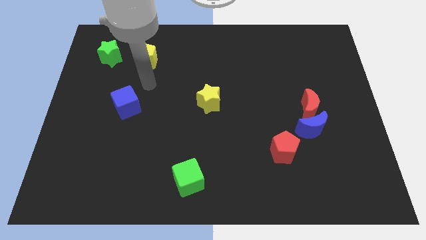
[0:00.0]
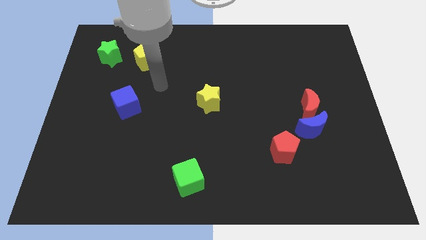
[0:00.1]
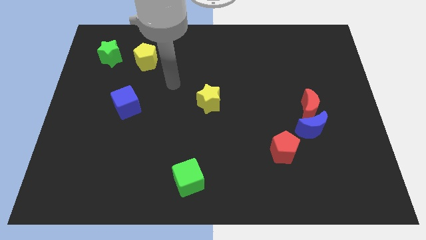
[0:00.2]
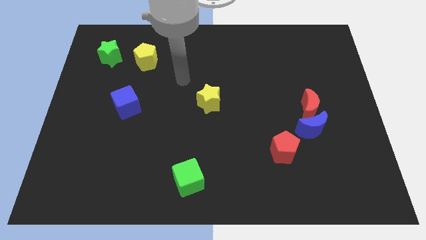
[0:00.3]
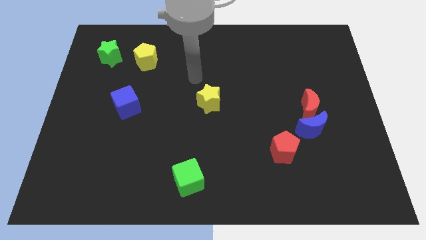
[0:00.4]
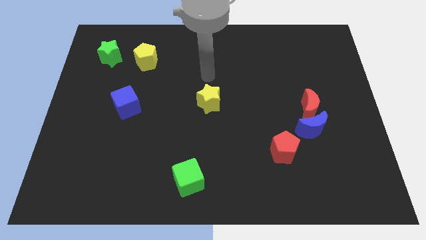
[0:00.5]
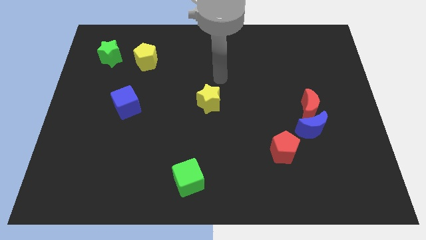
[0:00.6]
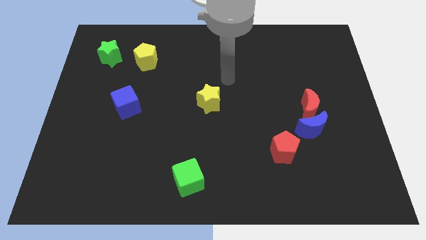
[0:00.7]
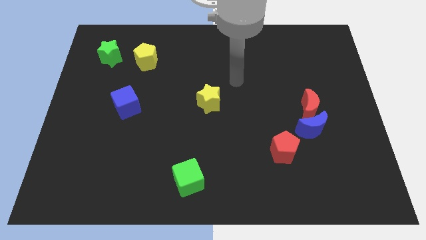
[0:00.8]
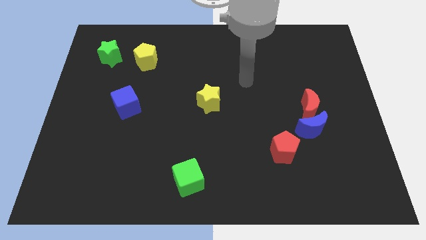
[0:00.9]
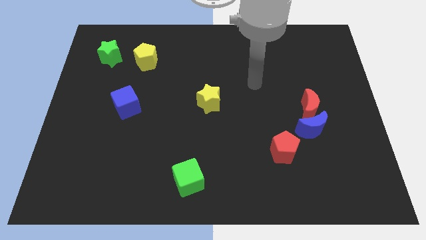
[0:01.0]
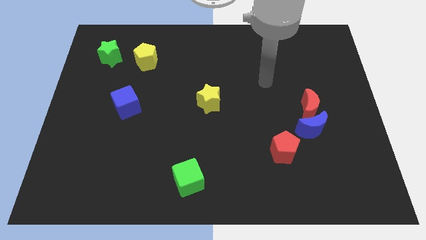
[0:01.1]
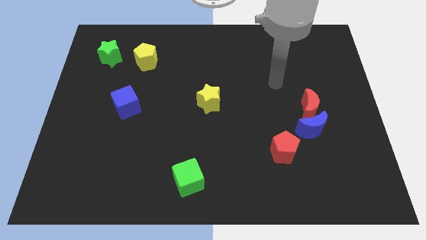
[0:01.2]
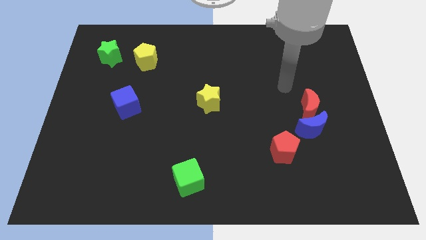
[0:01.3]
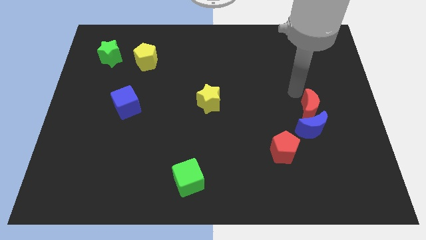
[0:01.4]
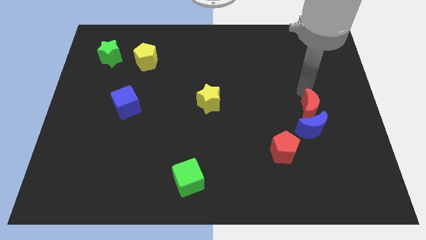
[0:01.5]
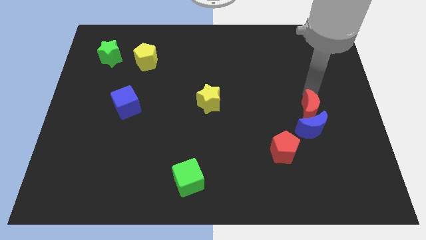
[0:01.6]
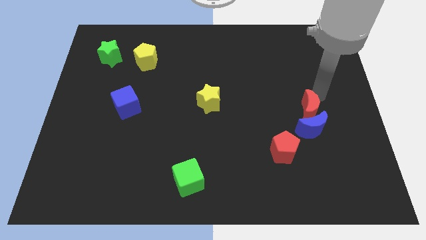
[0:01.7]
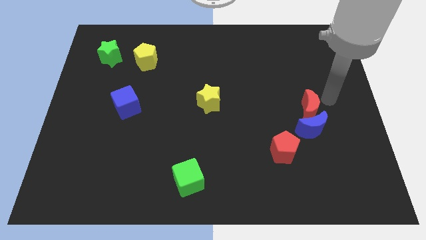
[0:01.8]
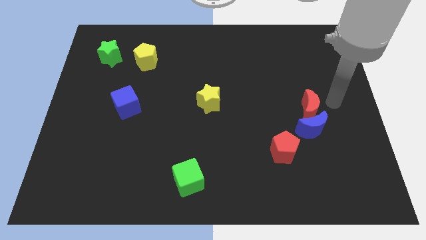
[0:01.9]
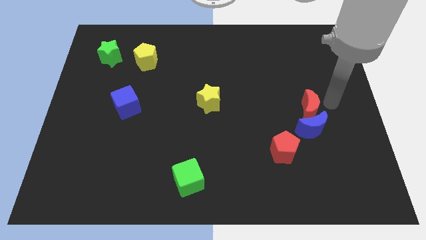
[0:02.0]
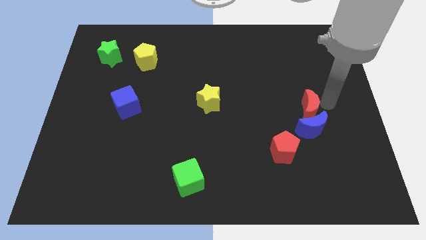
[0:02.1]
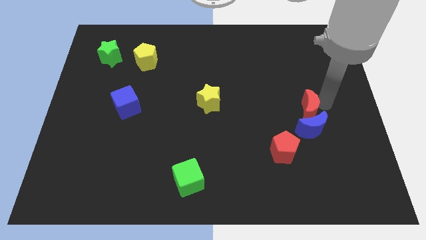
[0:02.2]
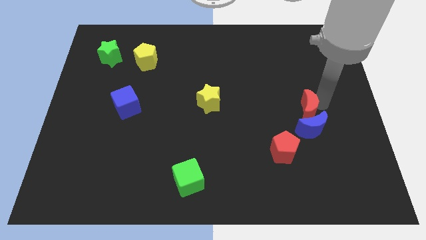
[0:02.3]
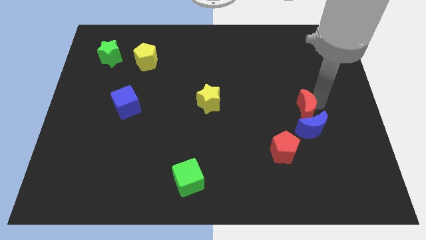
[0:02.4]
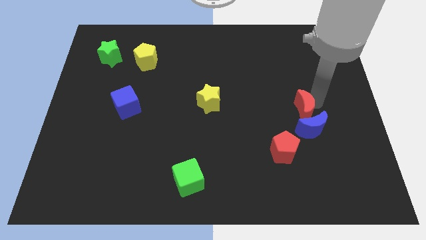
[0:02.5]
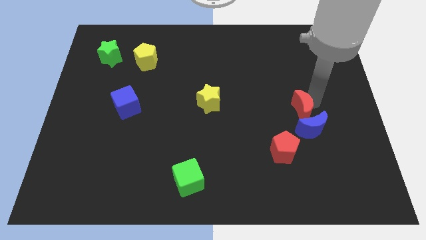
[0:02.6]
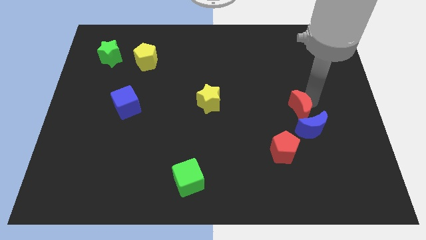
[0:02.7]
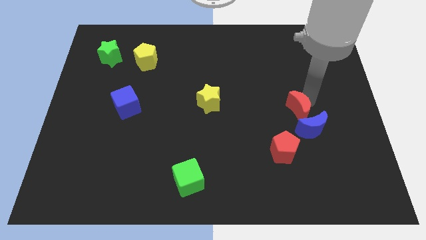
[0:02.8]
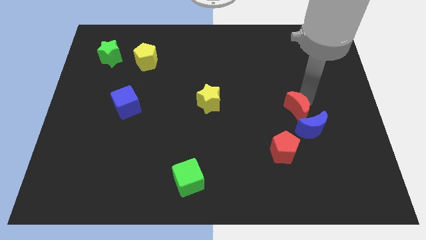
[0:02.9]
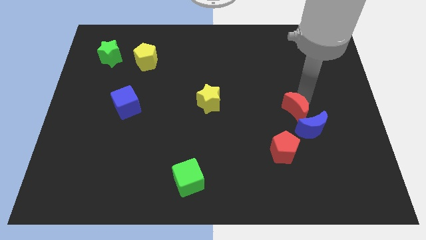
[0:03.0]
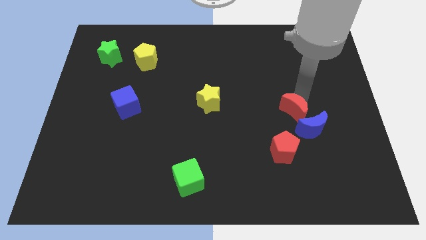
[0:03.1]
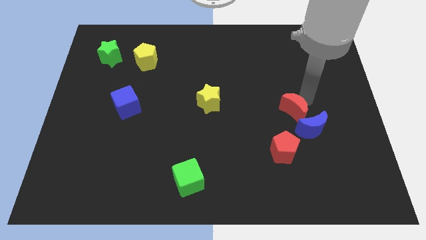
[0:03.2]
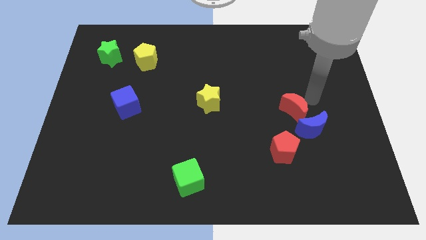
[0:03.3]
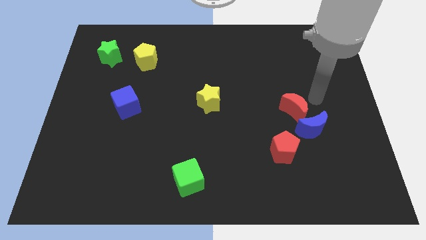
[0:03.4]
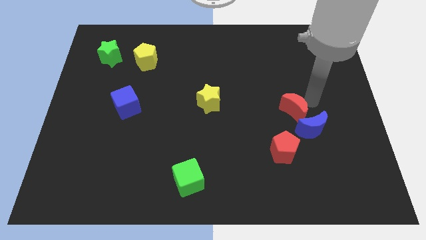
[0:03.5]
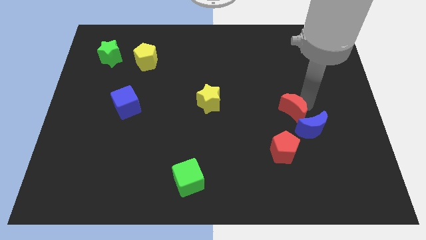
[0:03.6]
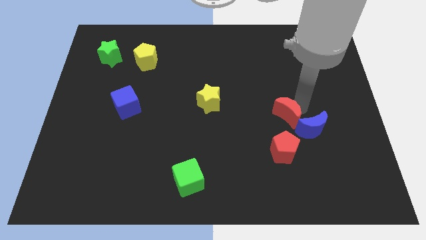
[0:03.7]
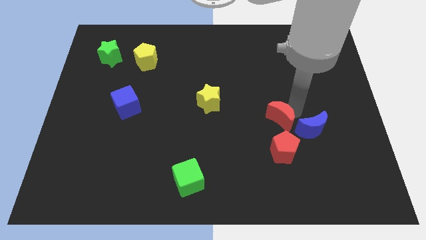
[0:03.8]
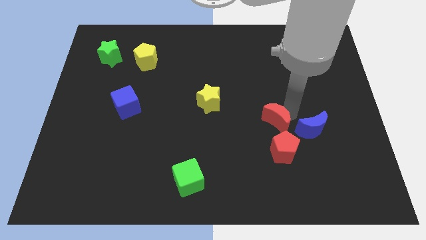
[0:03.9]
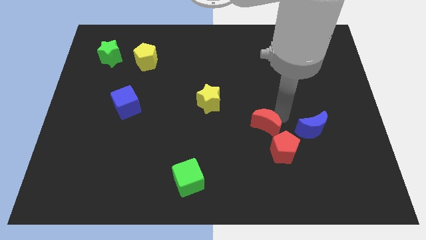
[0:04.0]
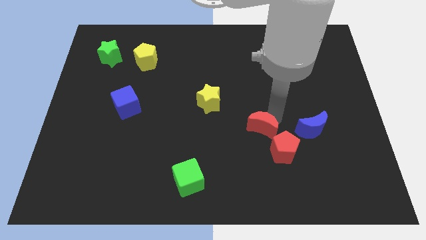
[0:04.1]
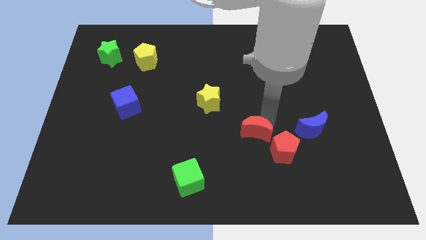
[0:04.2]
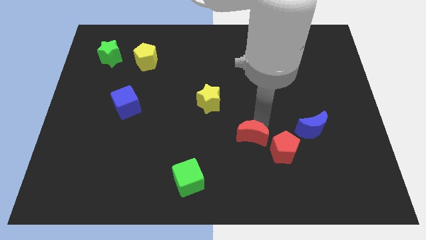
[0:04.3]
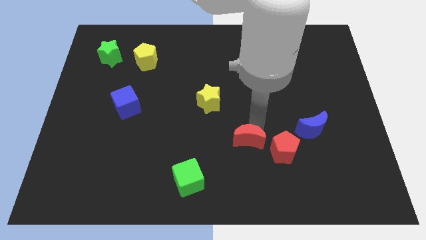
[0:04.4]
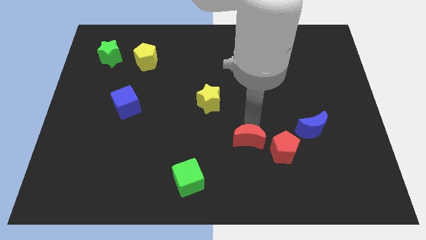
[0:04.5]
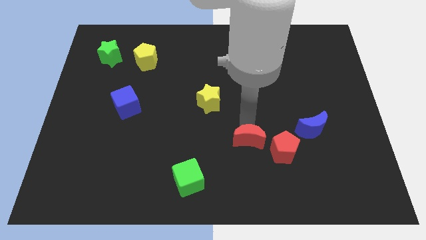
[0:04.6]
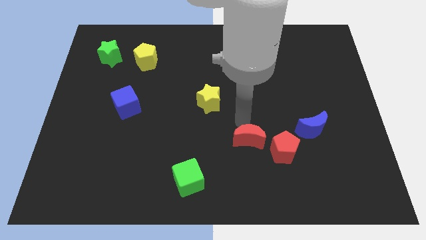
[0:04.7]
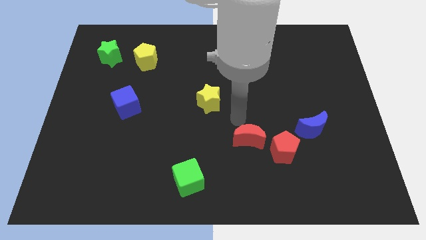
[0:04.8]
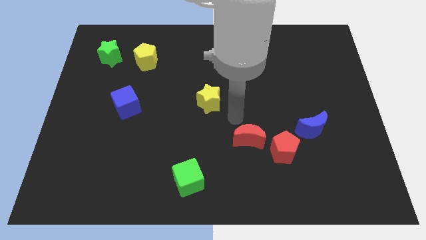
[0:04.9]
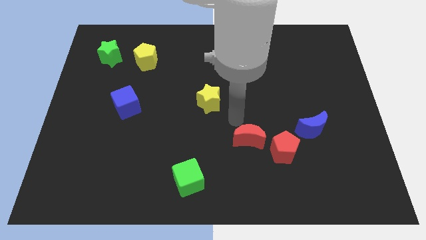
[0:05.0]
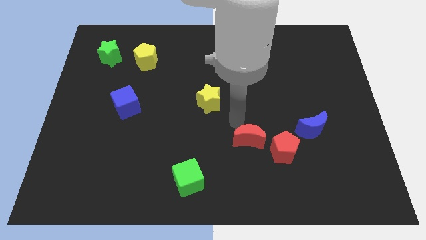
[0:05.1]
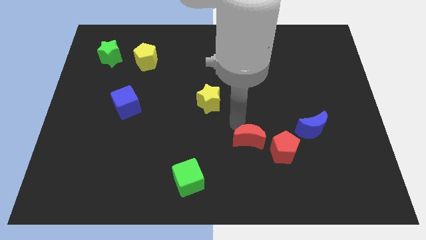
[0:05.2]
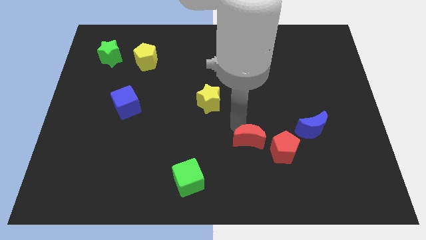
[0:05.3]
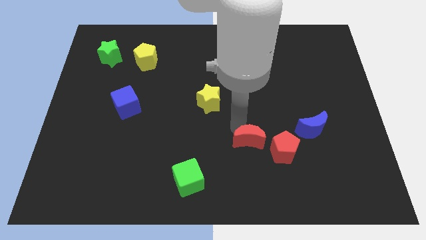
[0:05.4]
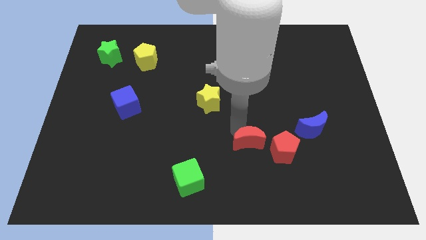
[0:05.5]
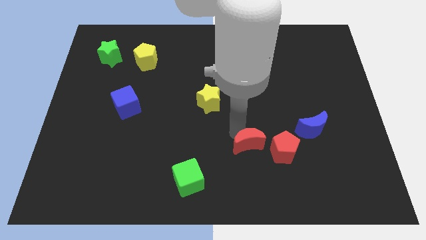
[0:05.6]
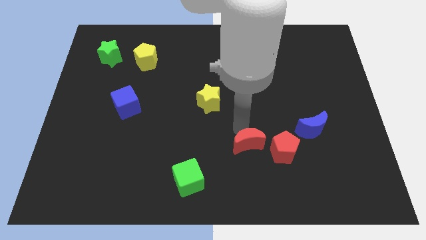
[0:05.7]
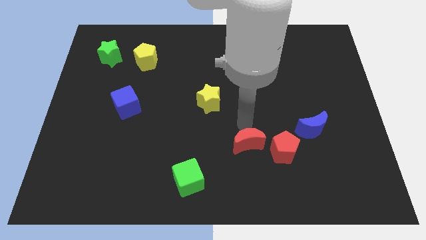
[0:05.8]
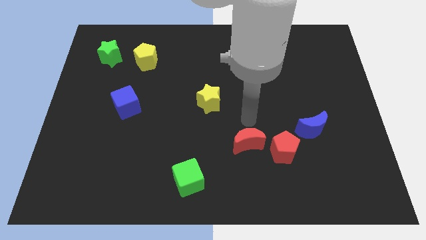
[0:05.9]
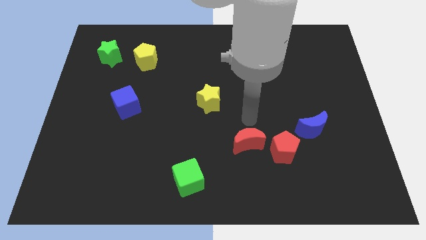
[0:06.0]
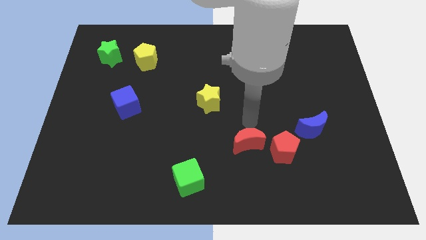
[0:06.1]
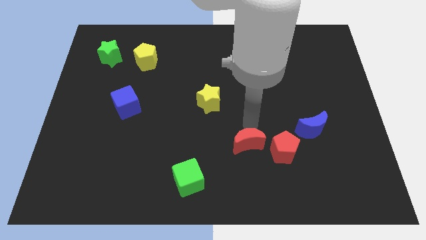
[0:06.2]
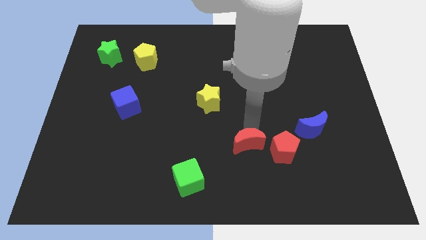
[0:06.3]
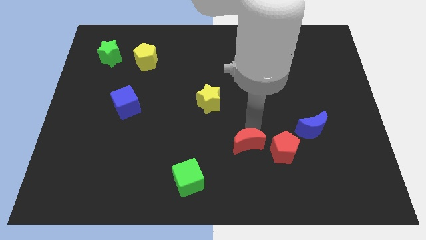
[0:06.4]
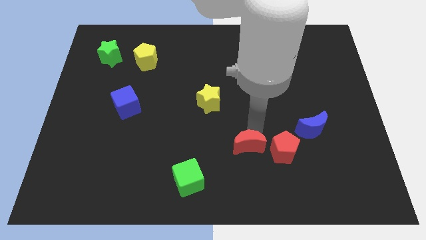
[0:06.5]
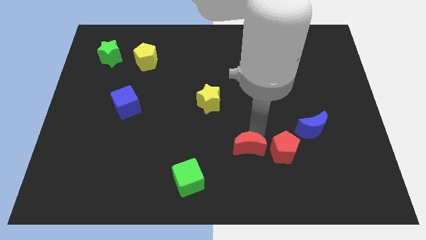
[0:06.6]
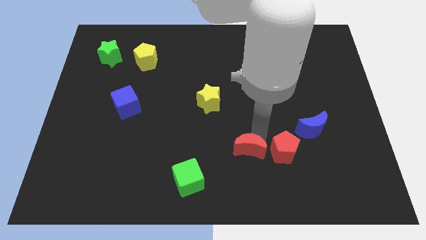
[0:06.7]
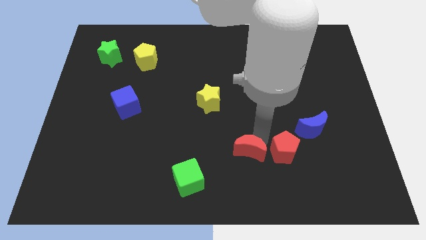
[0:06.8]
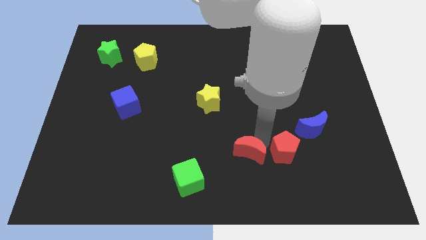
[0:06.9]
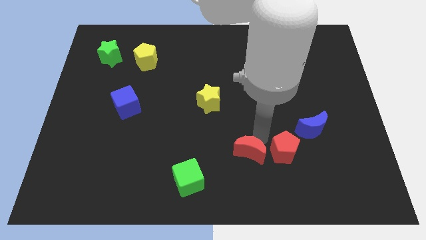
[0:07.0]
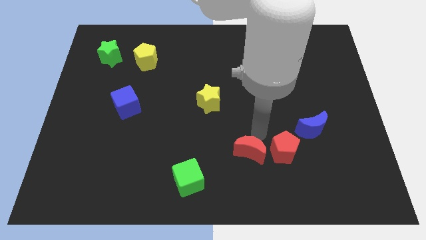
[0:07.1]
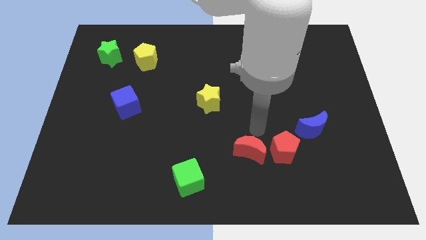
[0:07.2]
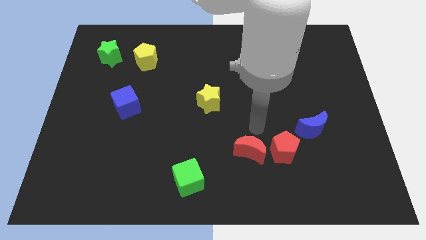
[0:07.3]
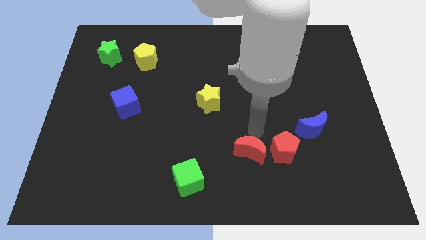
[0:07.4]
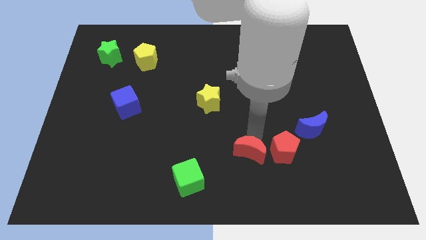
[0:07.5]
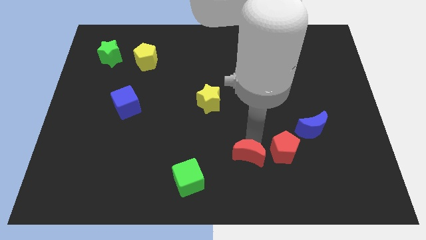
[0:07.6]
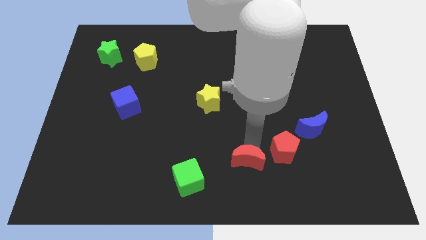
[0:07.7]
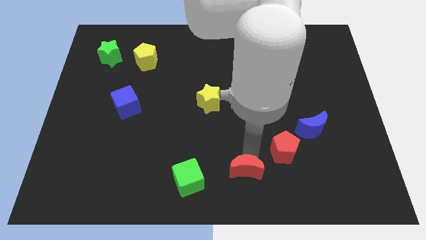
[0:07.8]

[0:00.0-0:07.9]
push the red moon to the bottom
